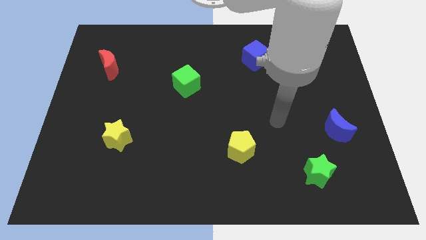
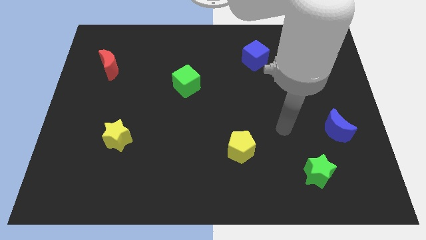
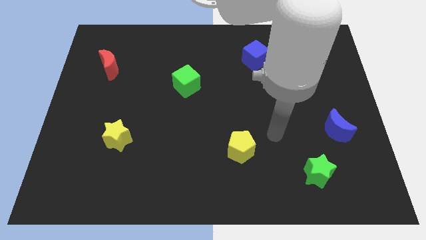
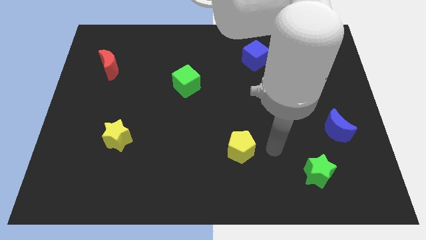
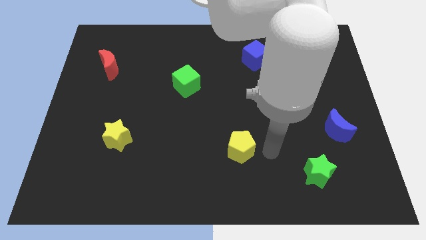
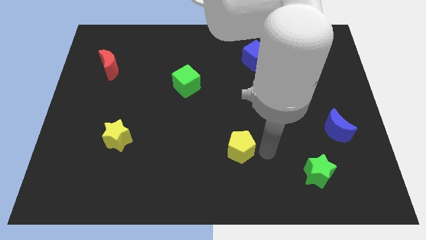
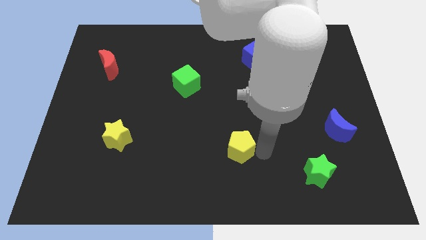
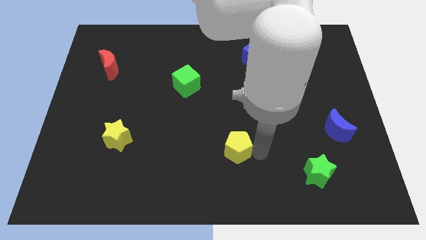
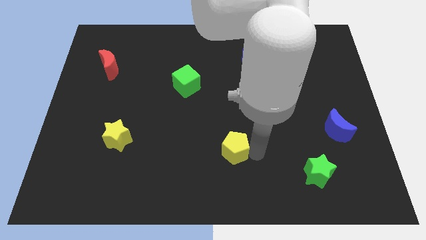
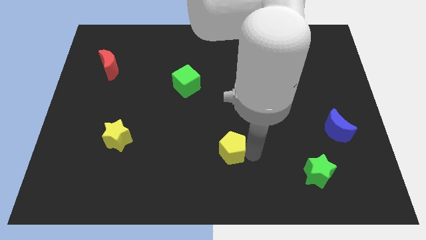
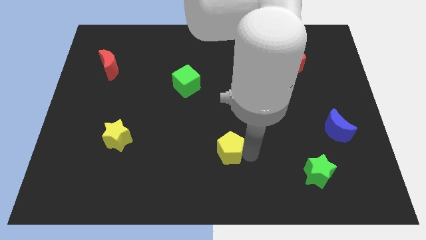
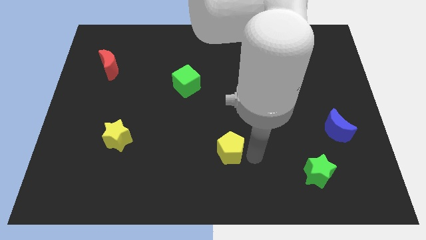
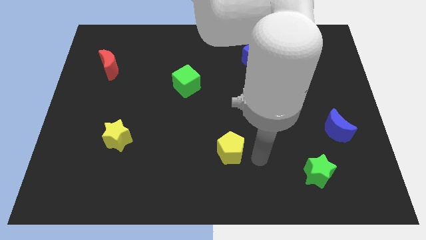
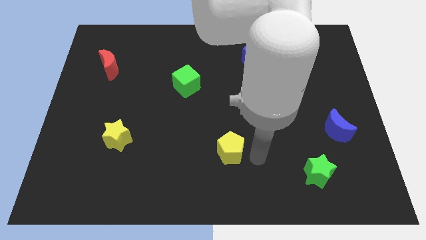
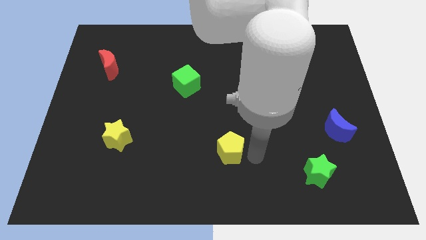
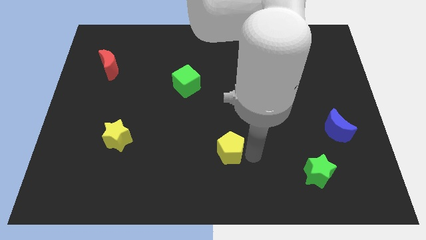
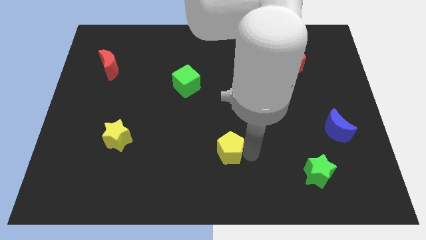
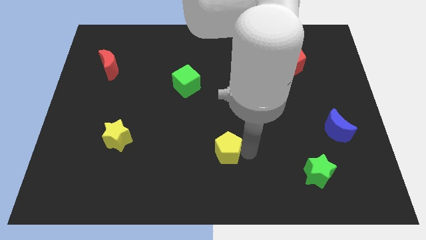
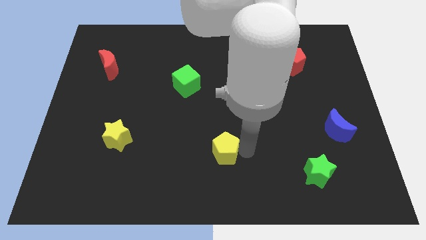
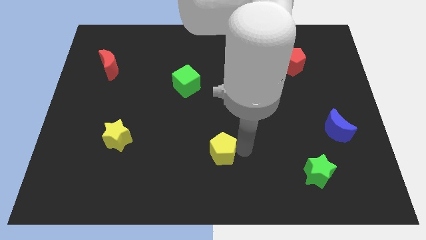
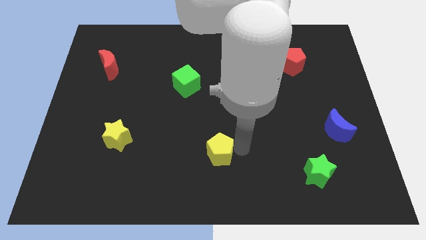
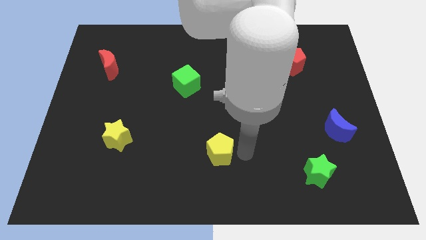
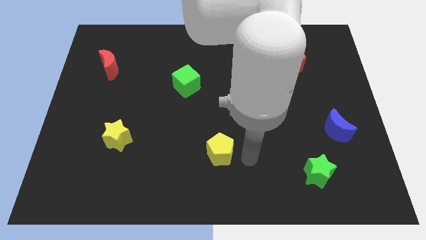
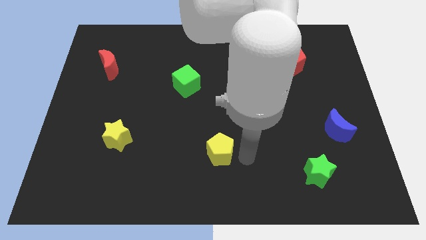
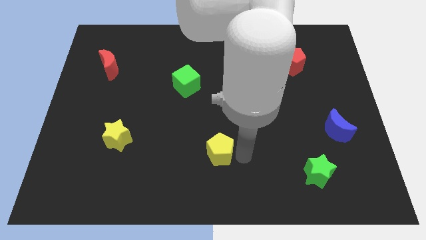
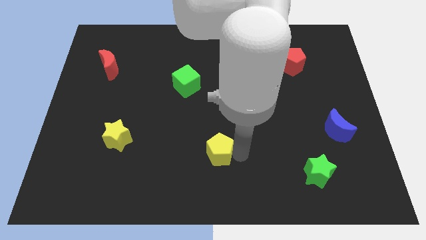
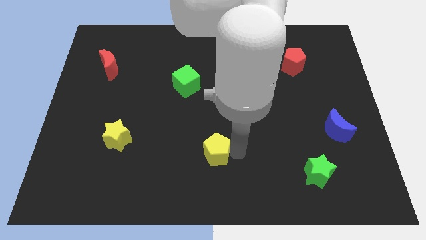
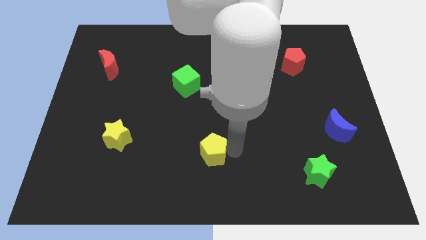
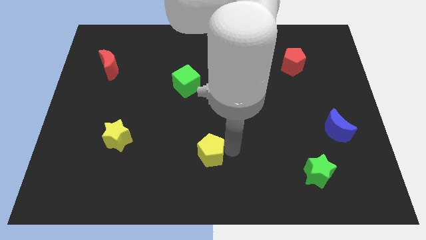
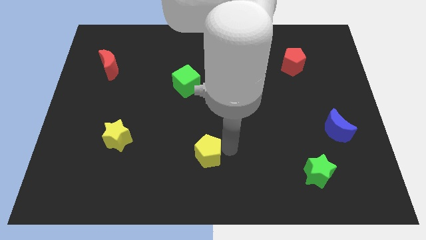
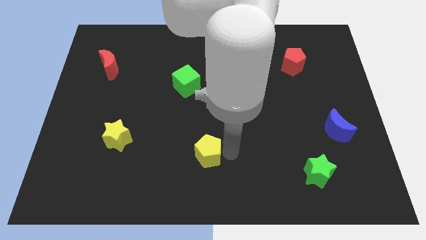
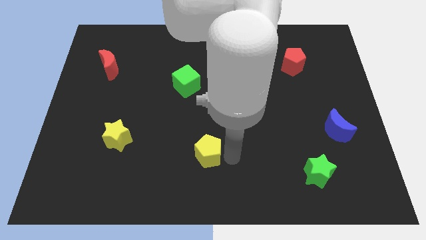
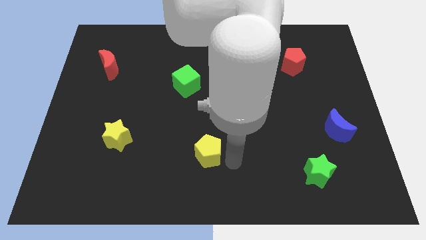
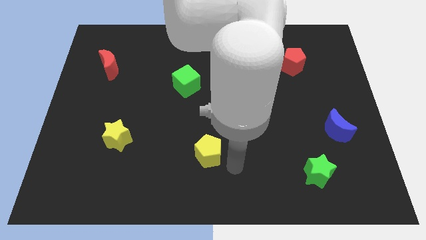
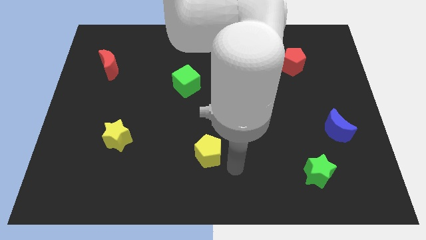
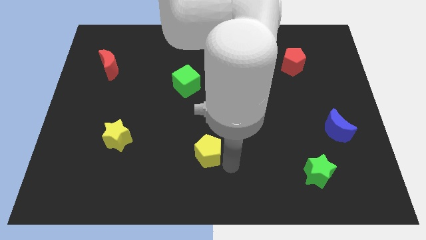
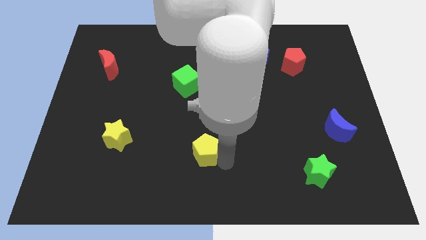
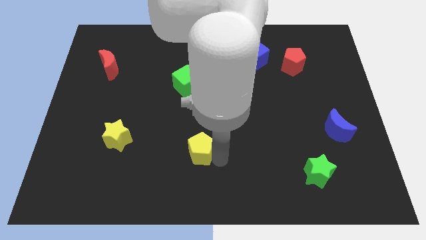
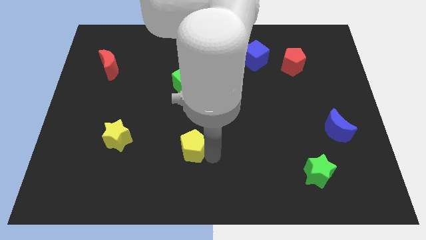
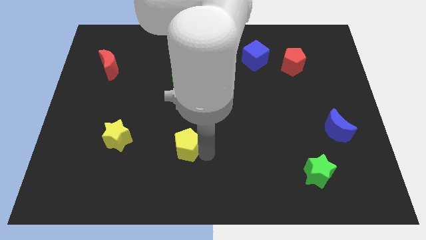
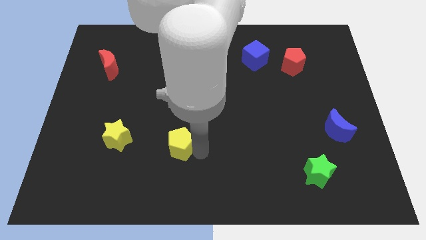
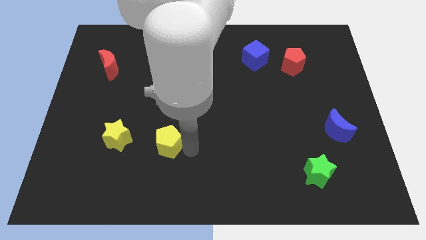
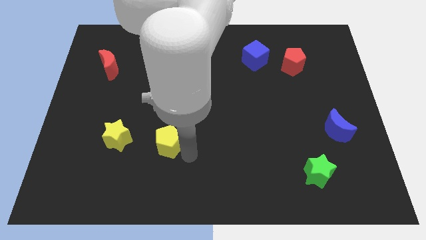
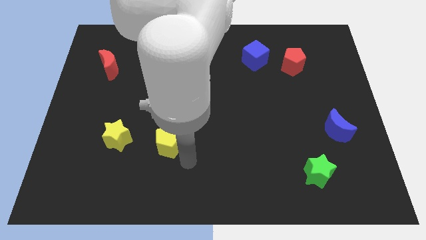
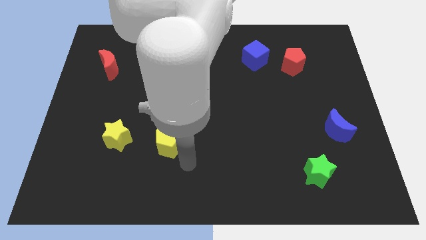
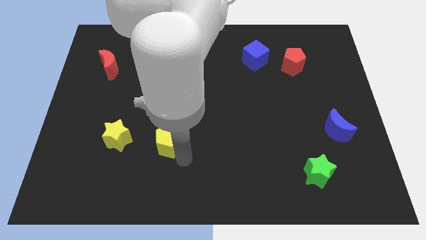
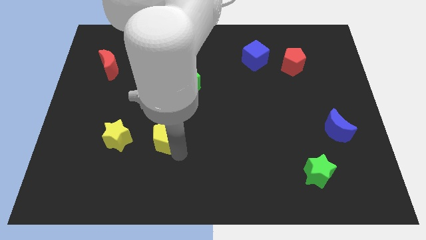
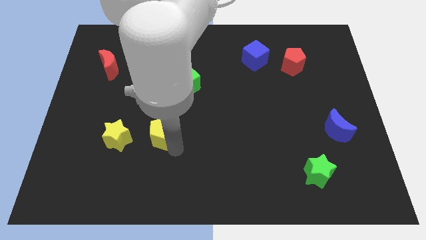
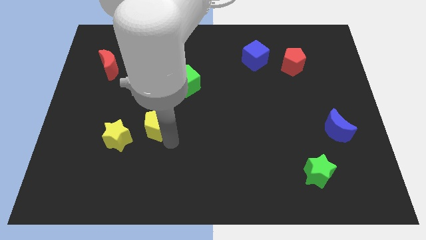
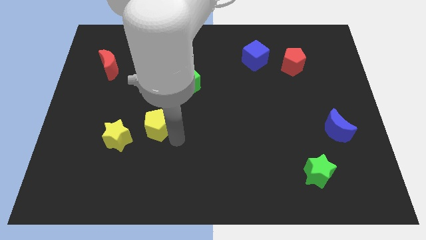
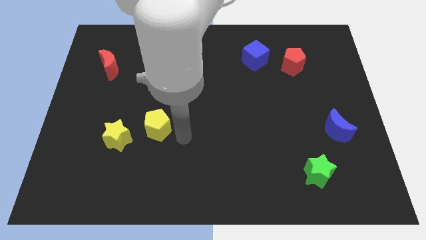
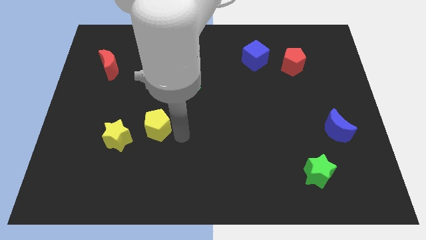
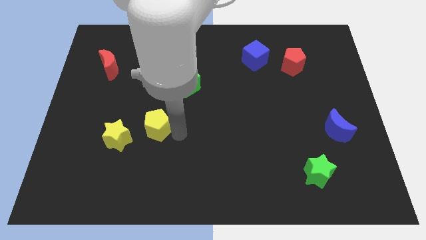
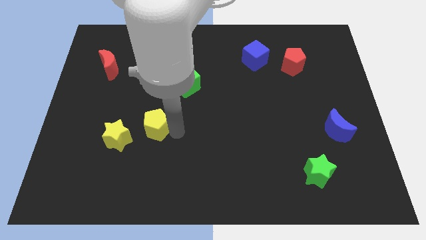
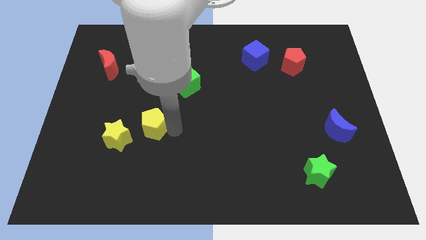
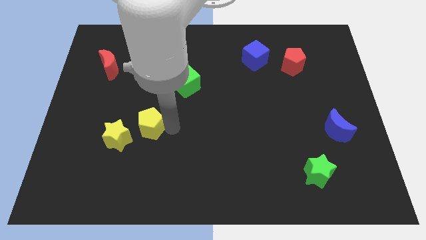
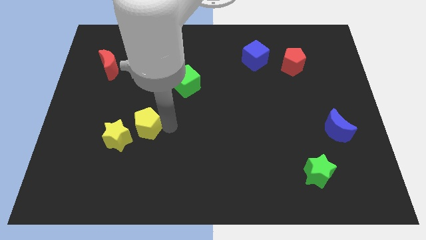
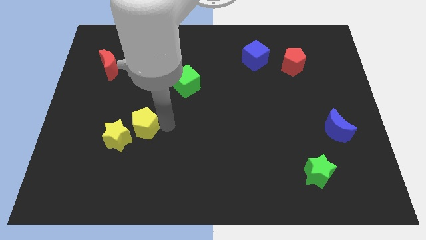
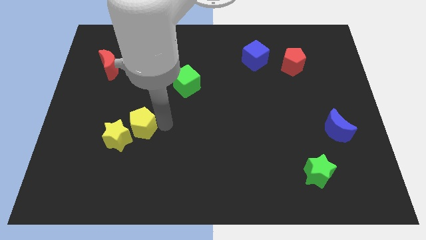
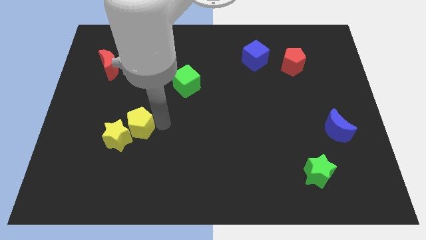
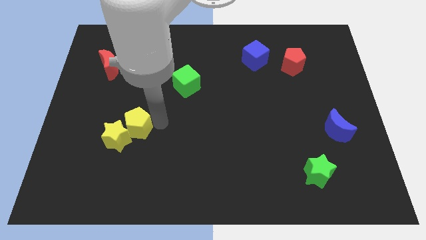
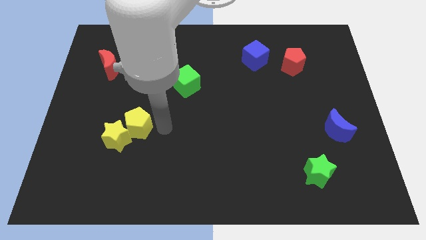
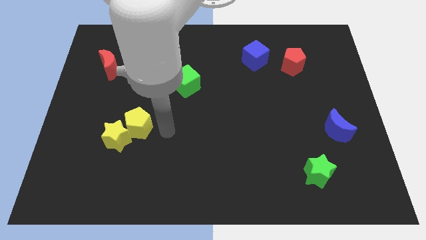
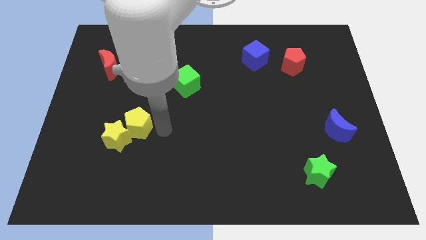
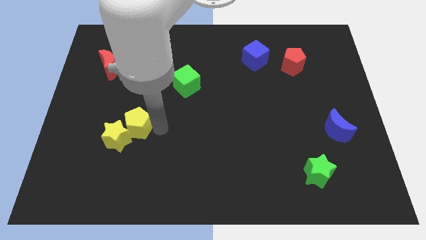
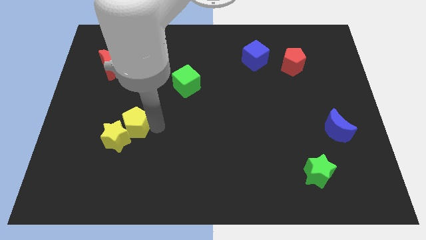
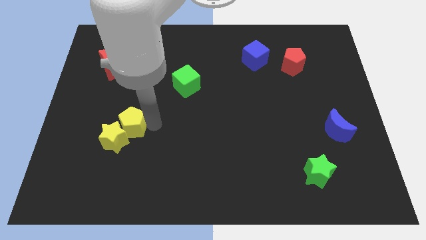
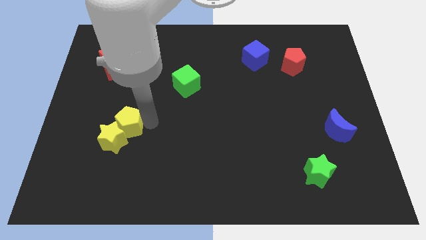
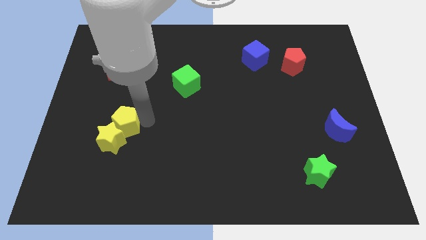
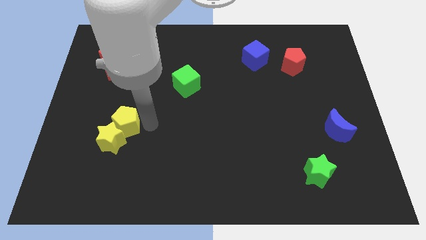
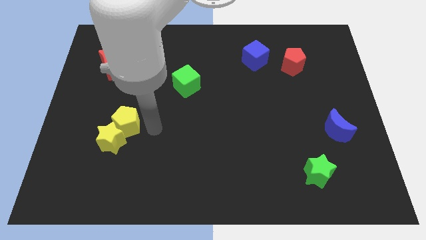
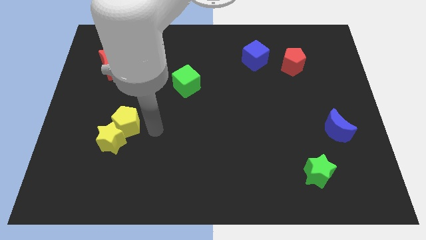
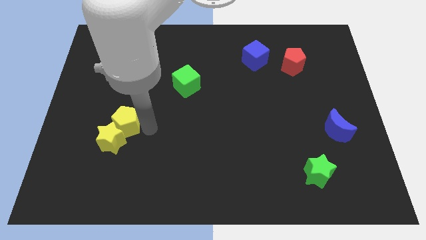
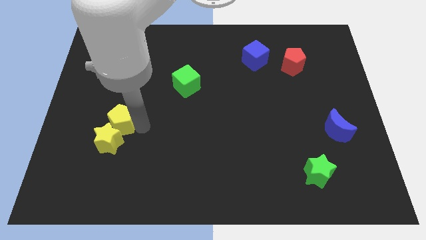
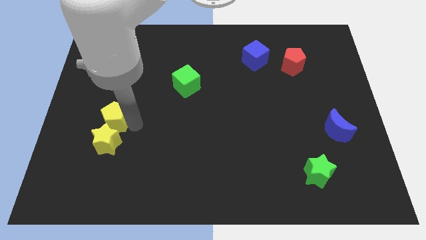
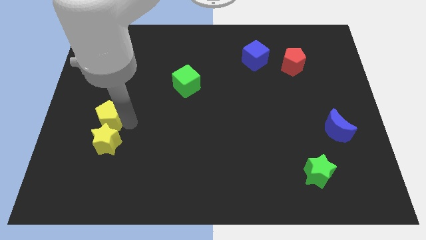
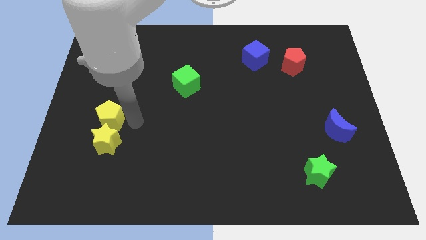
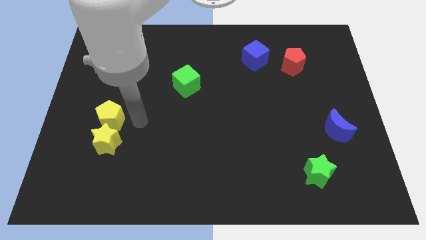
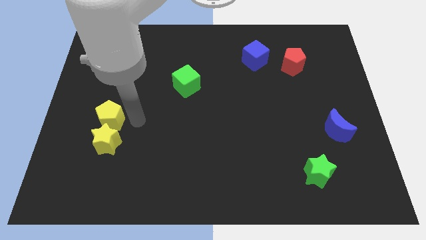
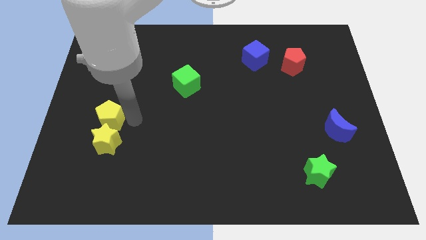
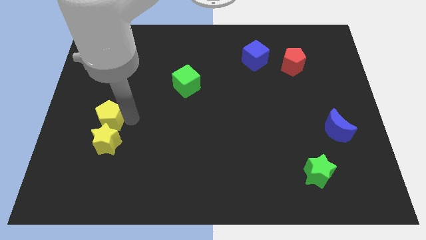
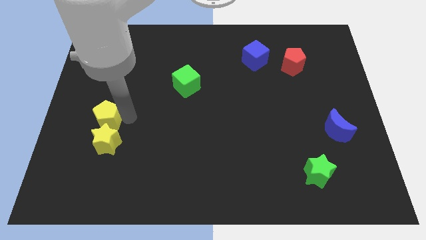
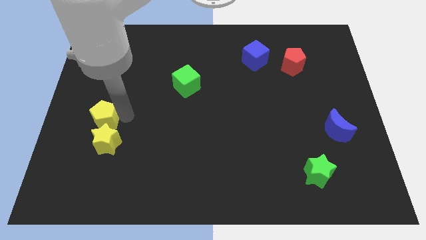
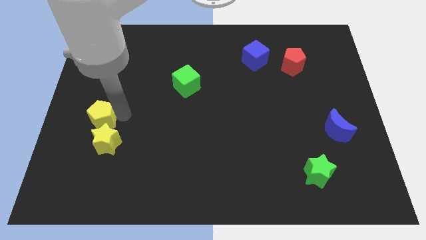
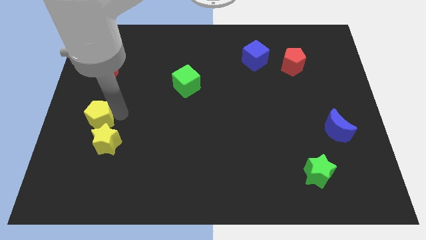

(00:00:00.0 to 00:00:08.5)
push the yellow pentagon to the left side of the board
